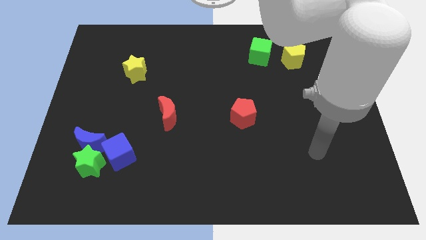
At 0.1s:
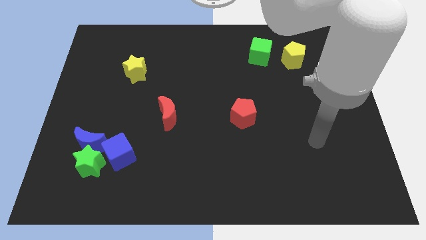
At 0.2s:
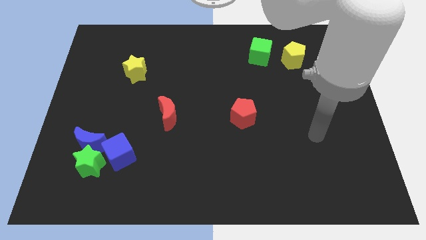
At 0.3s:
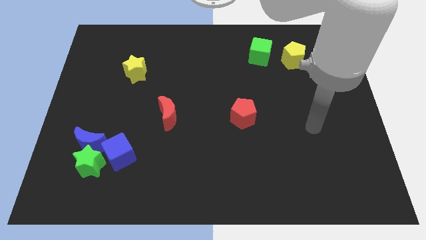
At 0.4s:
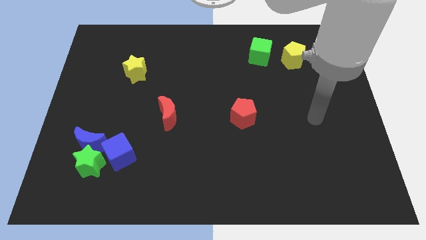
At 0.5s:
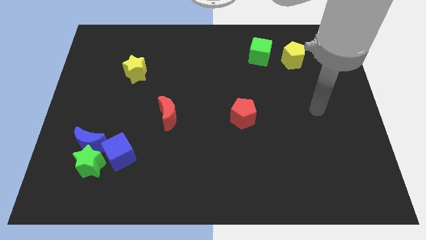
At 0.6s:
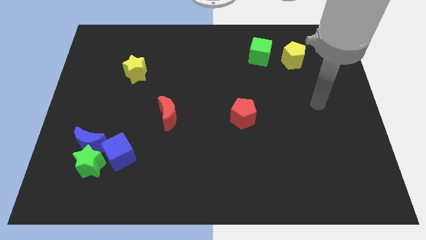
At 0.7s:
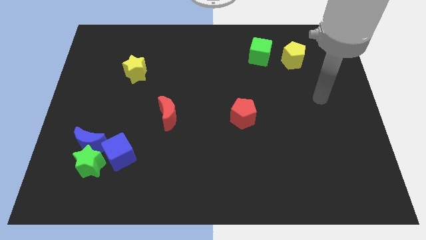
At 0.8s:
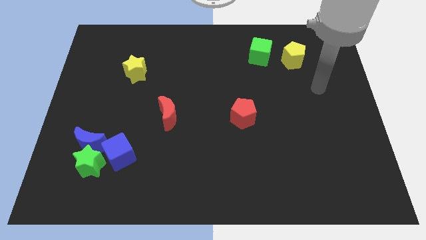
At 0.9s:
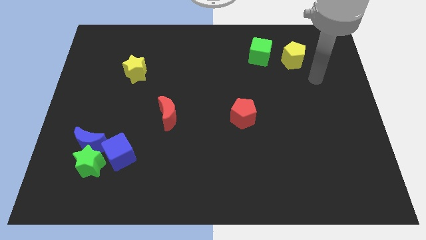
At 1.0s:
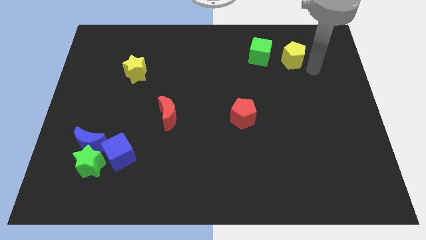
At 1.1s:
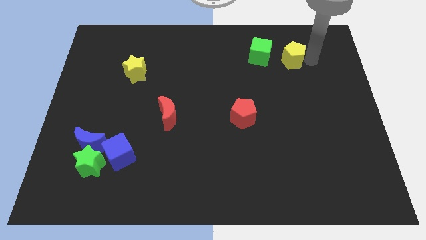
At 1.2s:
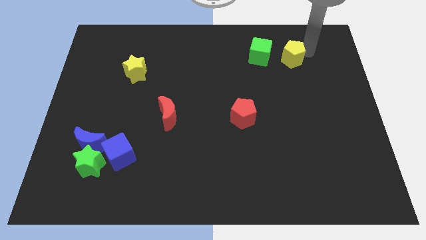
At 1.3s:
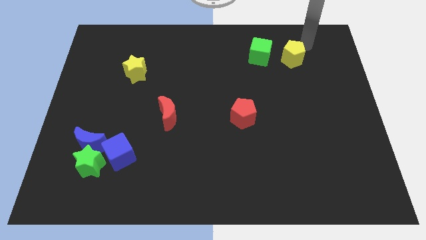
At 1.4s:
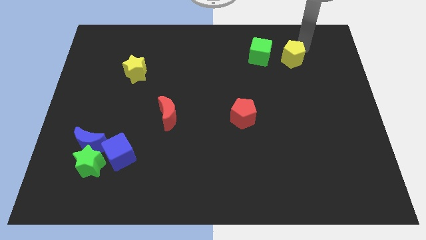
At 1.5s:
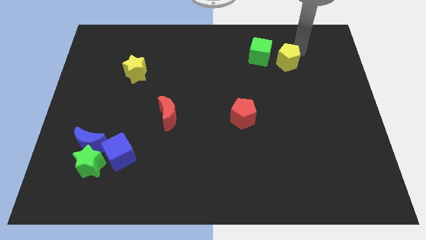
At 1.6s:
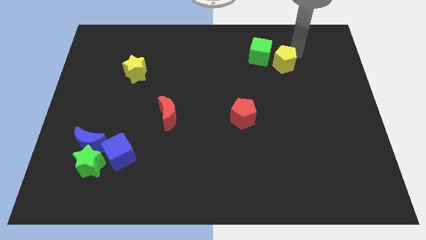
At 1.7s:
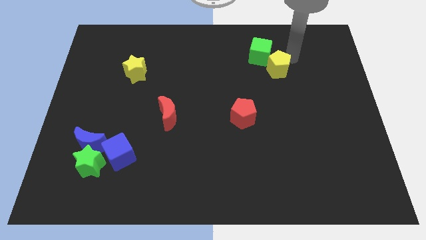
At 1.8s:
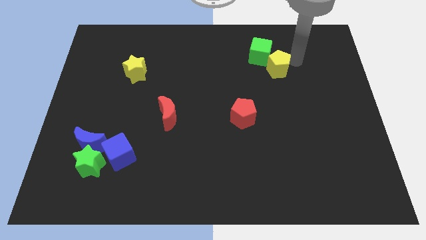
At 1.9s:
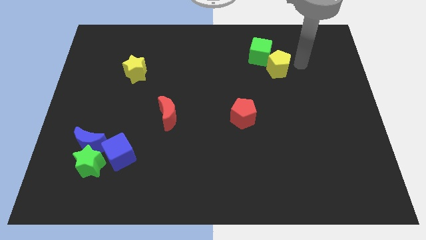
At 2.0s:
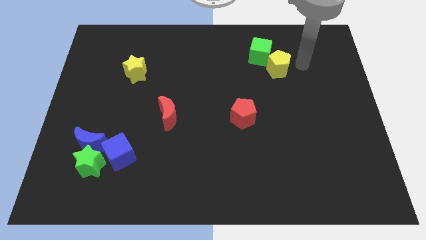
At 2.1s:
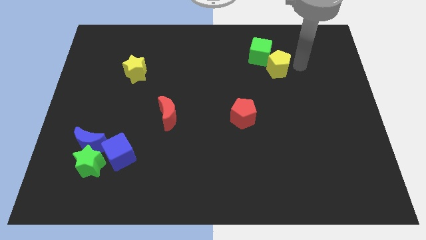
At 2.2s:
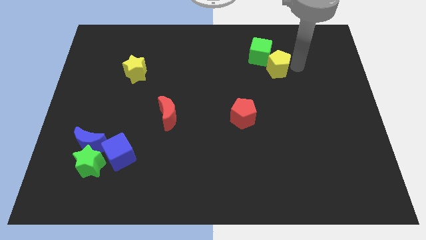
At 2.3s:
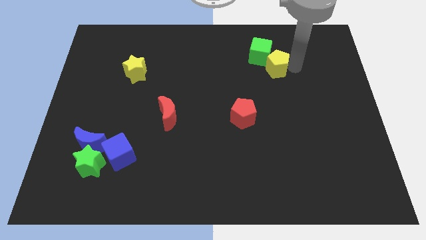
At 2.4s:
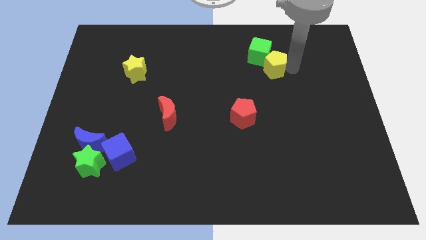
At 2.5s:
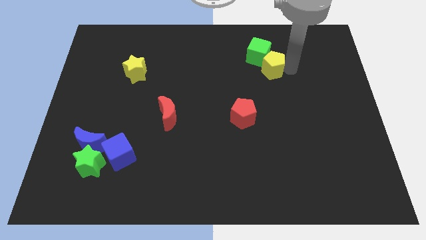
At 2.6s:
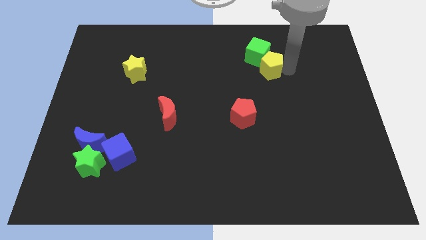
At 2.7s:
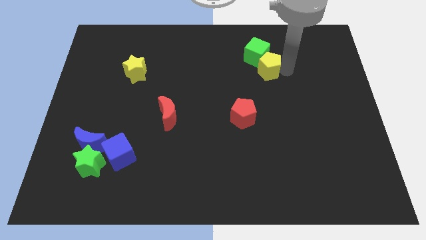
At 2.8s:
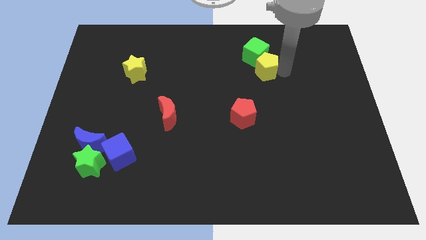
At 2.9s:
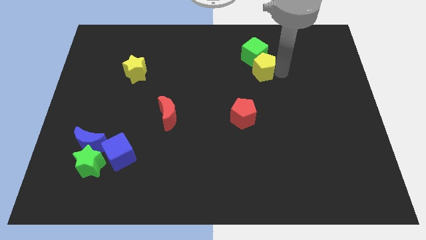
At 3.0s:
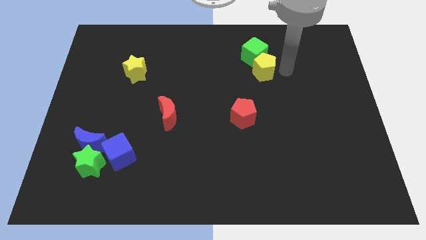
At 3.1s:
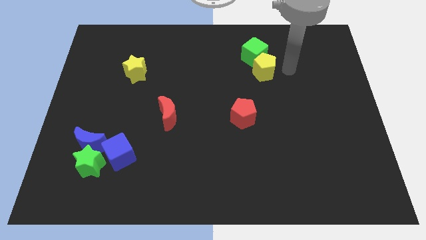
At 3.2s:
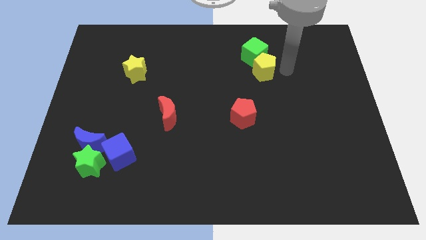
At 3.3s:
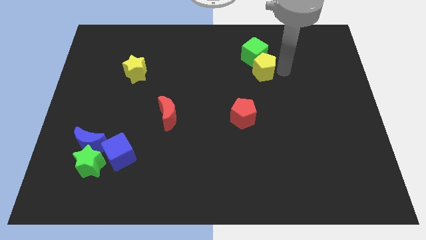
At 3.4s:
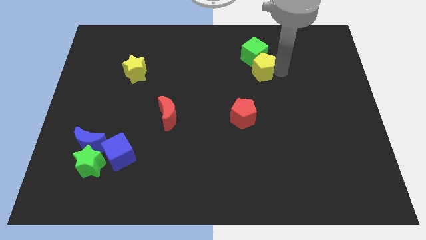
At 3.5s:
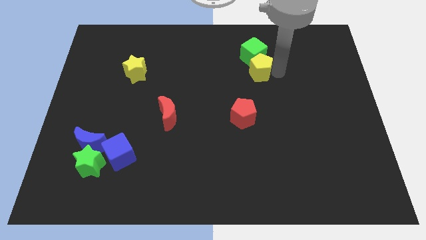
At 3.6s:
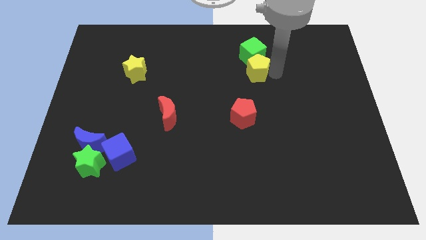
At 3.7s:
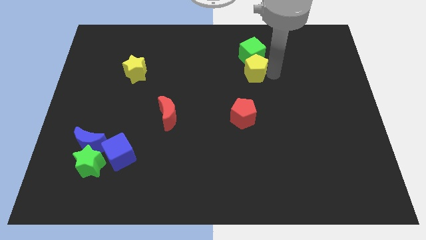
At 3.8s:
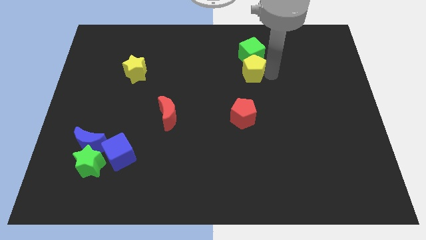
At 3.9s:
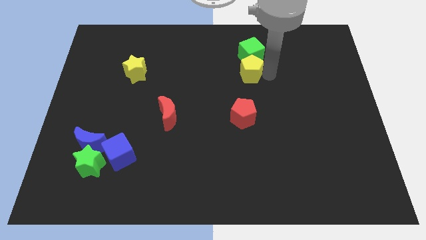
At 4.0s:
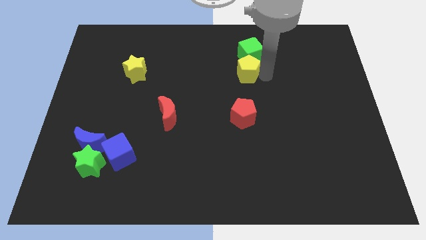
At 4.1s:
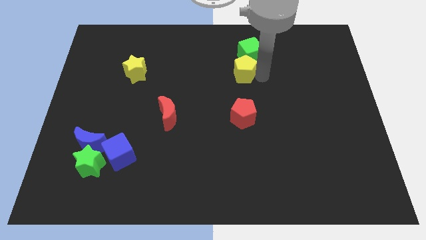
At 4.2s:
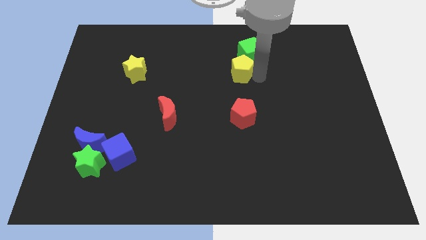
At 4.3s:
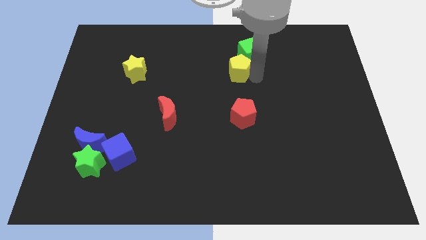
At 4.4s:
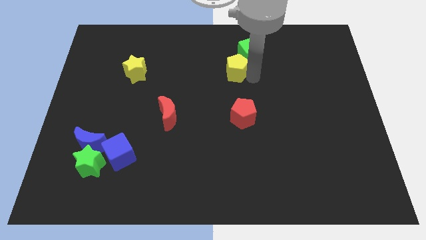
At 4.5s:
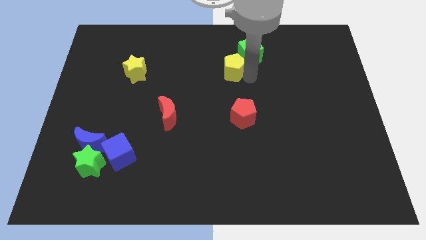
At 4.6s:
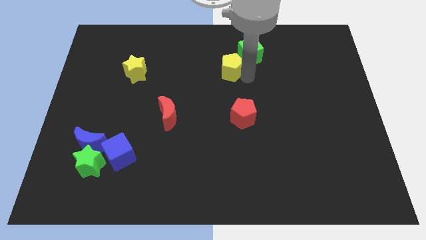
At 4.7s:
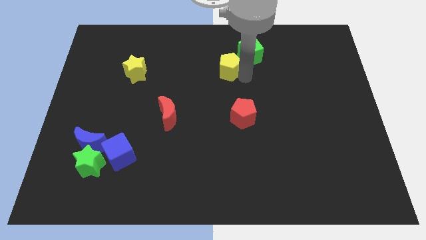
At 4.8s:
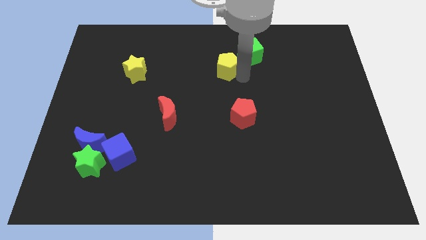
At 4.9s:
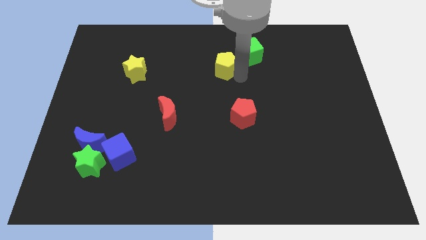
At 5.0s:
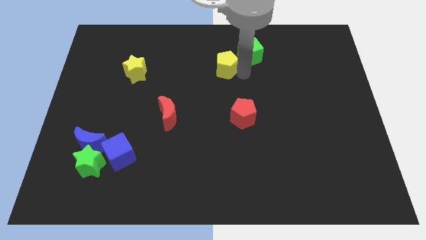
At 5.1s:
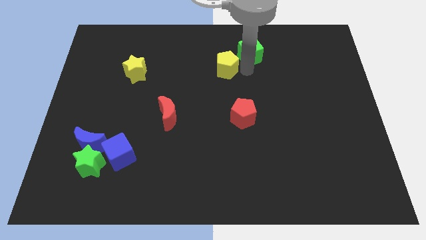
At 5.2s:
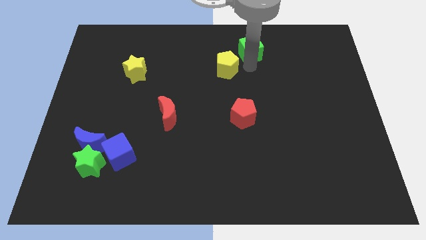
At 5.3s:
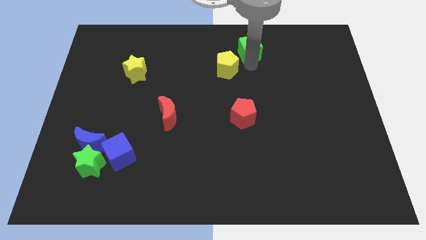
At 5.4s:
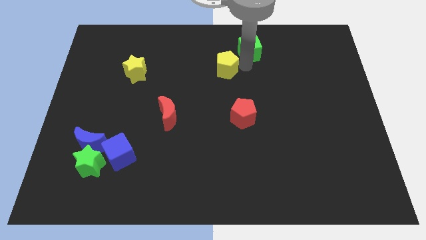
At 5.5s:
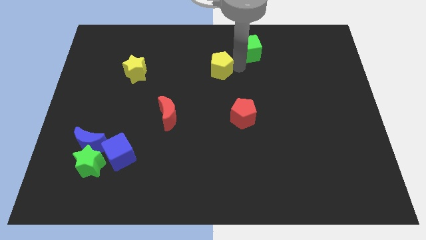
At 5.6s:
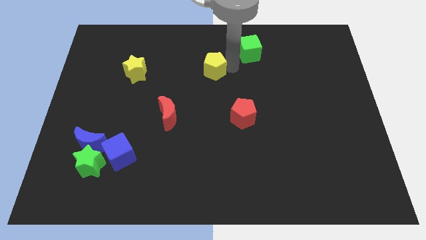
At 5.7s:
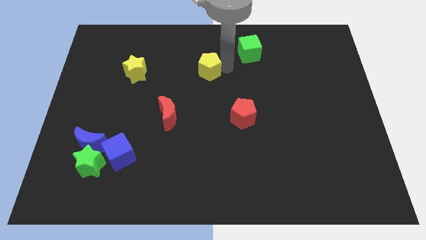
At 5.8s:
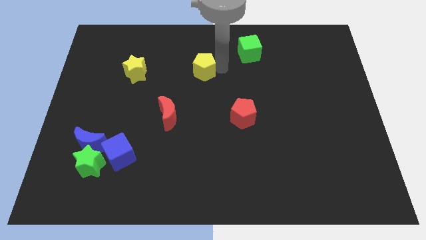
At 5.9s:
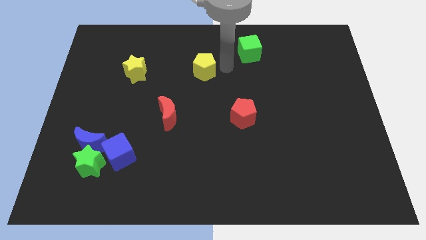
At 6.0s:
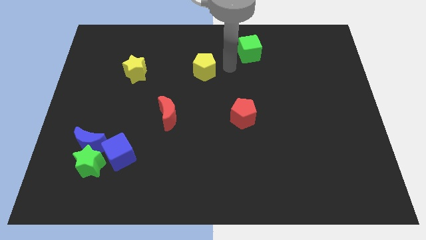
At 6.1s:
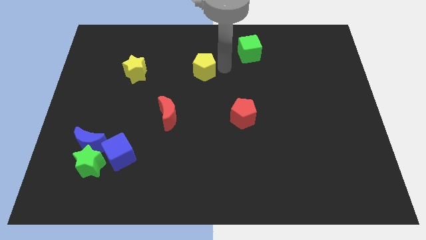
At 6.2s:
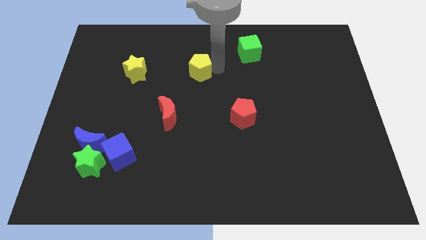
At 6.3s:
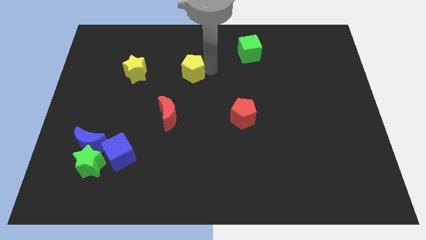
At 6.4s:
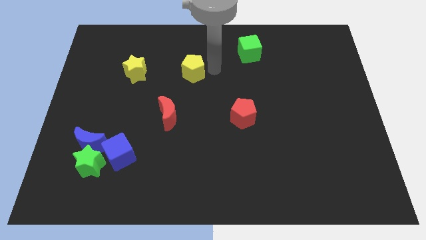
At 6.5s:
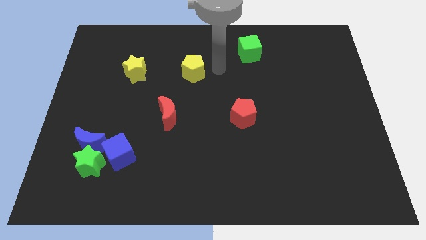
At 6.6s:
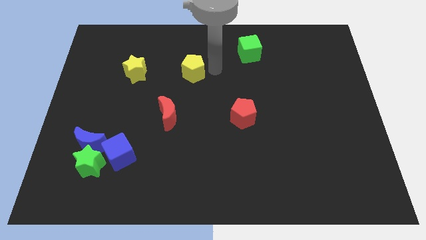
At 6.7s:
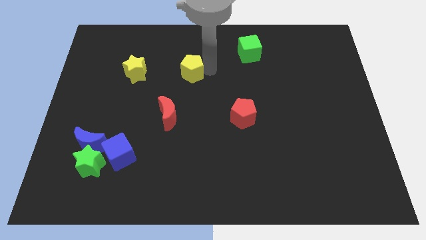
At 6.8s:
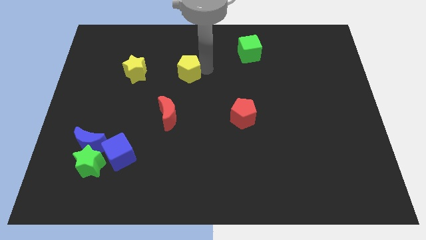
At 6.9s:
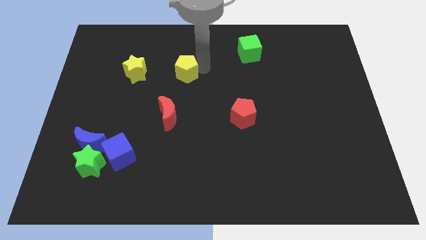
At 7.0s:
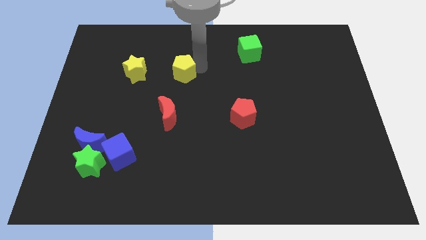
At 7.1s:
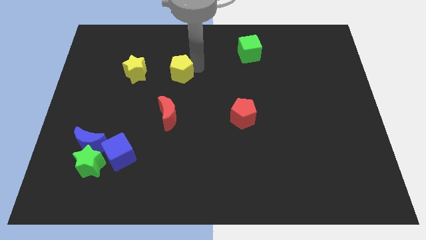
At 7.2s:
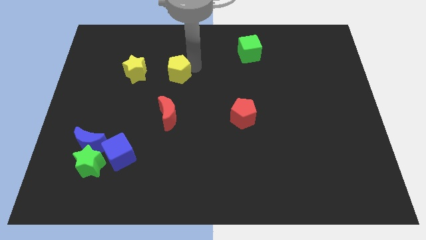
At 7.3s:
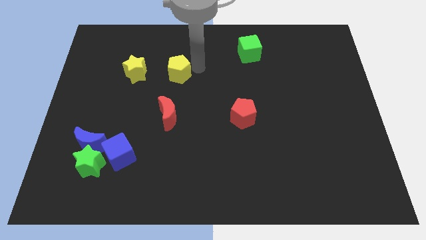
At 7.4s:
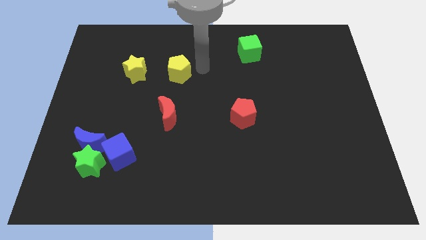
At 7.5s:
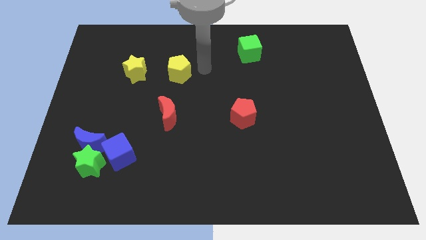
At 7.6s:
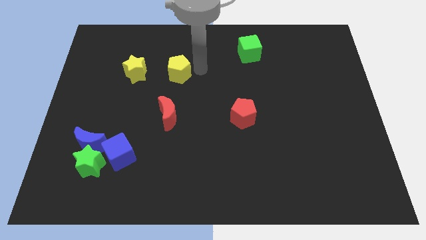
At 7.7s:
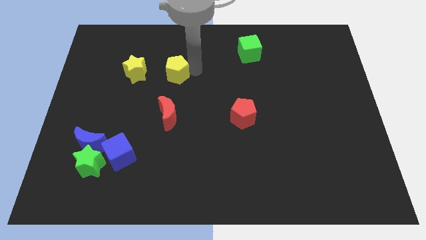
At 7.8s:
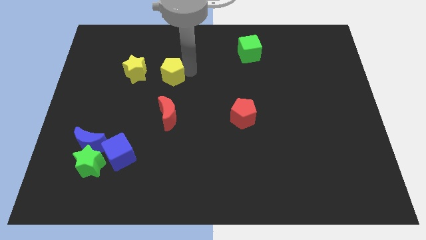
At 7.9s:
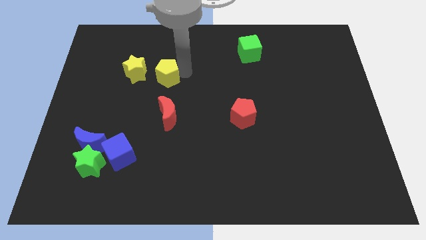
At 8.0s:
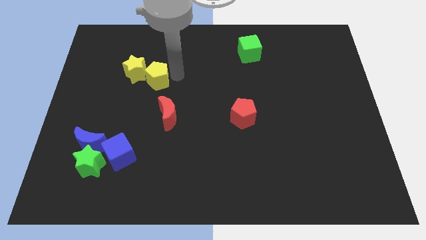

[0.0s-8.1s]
slide the yellow pentagon towards the yellow star
